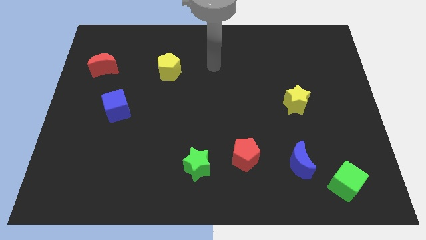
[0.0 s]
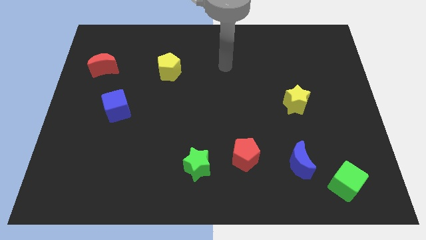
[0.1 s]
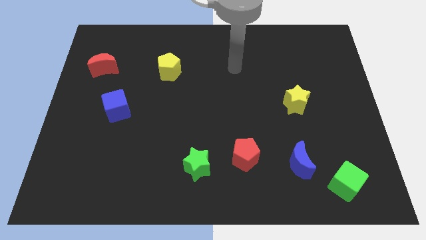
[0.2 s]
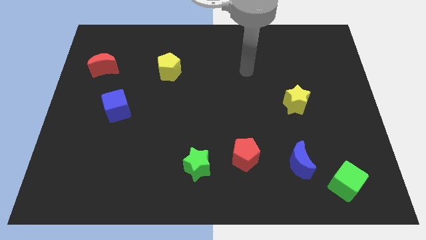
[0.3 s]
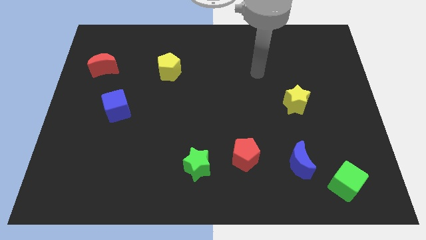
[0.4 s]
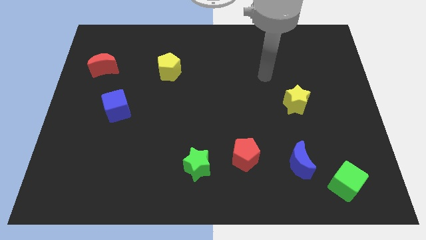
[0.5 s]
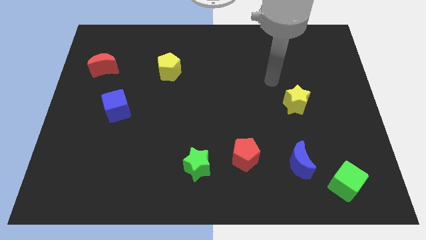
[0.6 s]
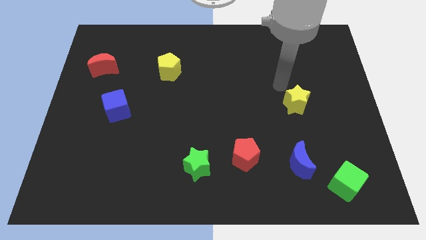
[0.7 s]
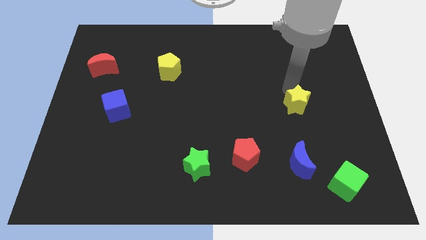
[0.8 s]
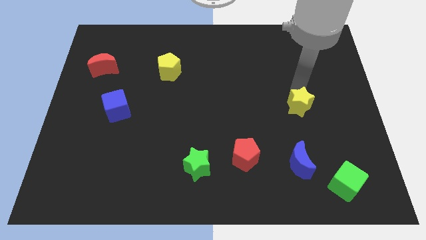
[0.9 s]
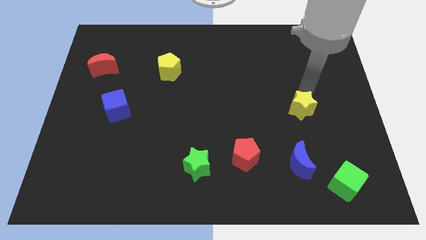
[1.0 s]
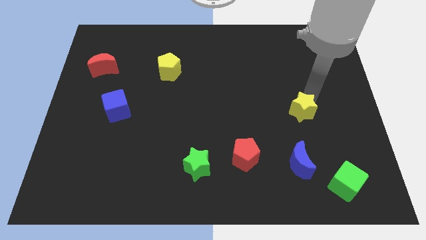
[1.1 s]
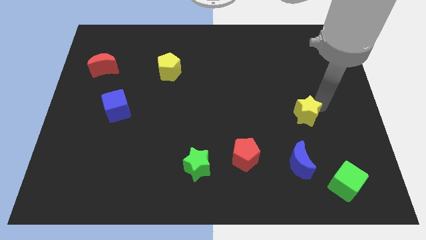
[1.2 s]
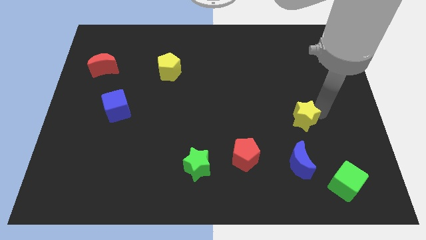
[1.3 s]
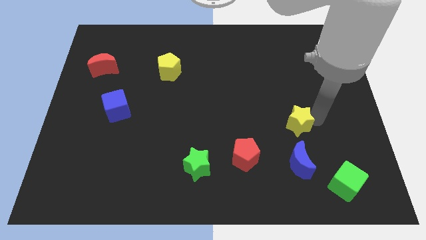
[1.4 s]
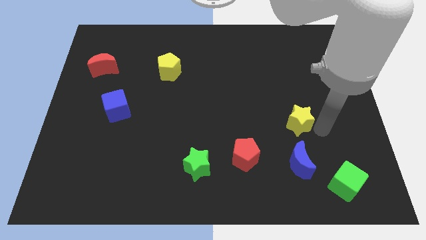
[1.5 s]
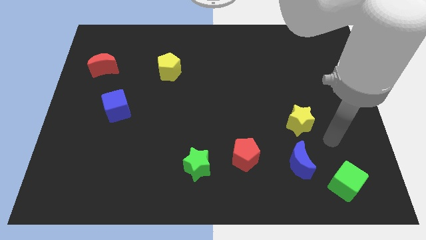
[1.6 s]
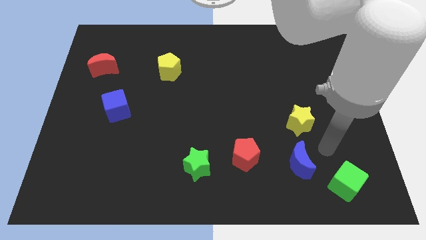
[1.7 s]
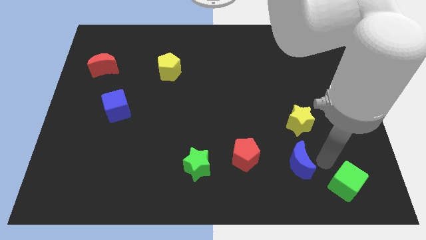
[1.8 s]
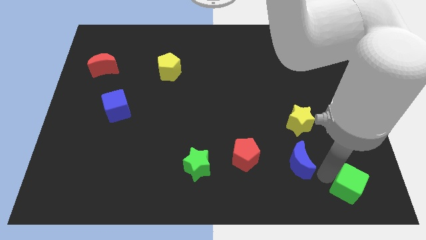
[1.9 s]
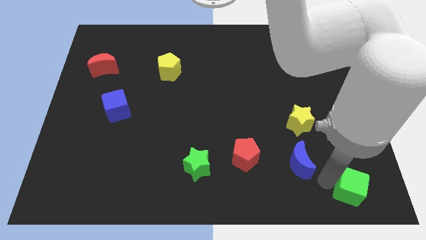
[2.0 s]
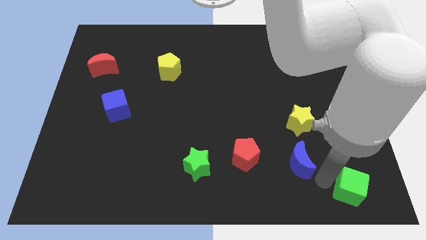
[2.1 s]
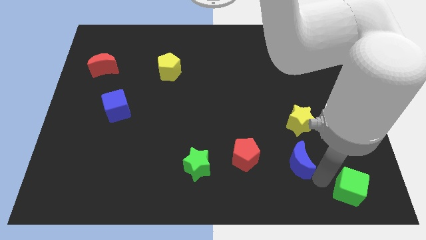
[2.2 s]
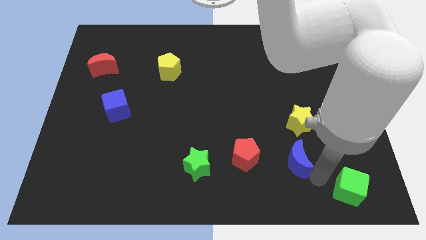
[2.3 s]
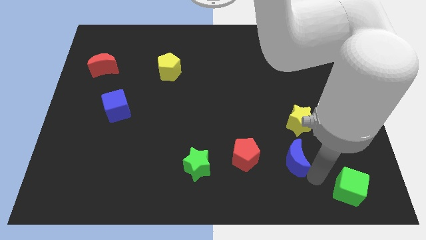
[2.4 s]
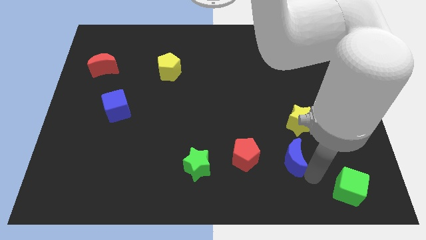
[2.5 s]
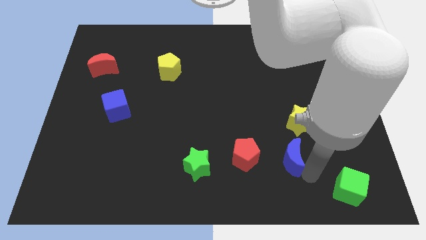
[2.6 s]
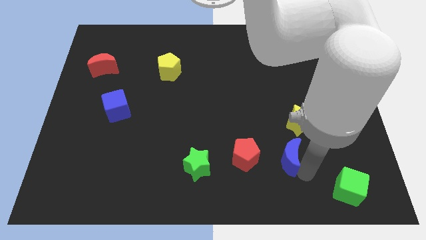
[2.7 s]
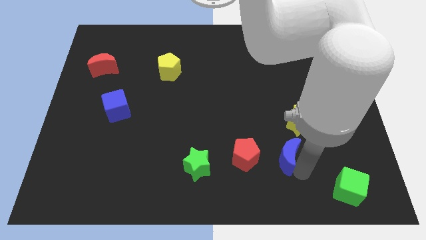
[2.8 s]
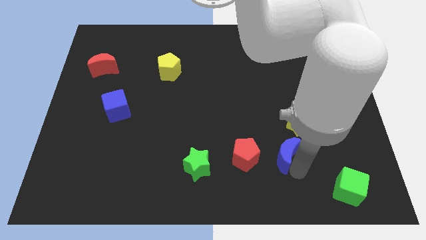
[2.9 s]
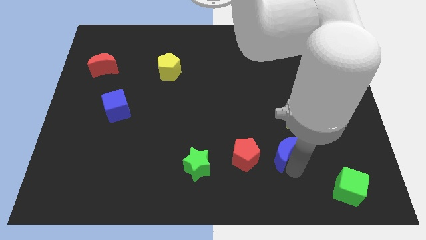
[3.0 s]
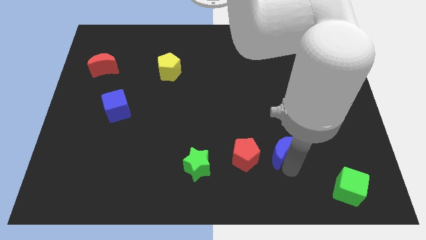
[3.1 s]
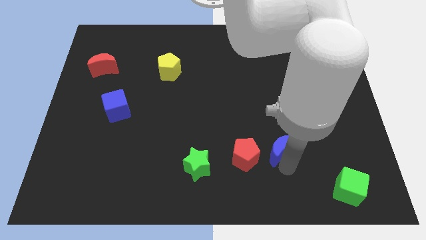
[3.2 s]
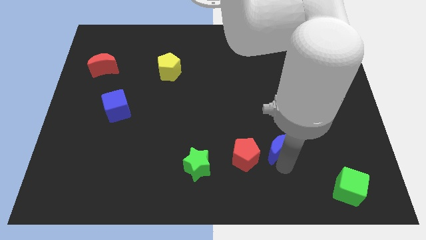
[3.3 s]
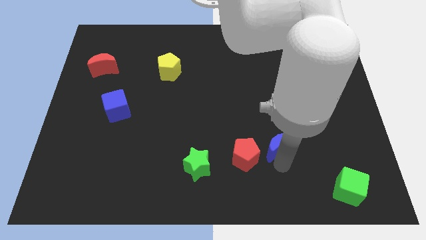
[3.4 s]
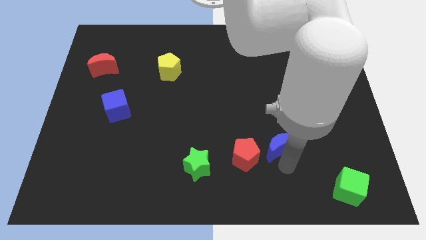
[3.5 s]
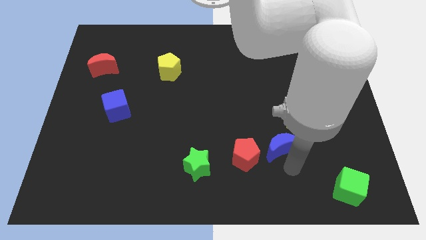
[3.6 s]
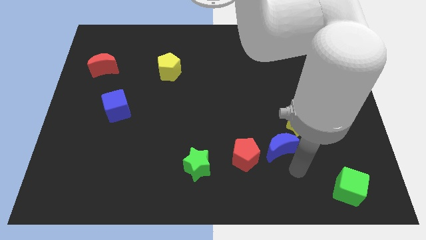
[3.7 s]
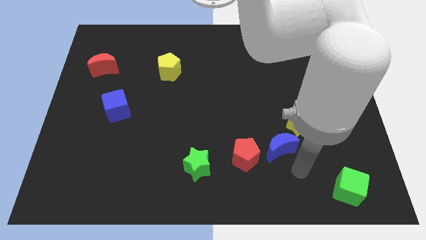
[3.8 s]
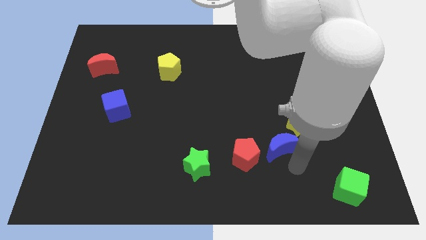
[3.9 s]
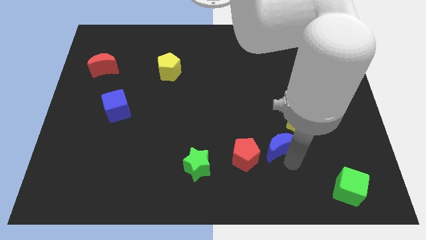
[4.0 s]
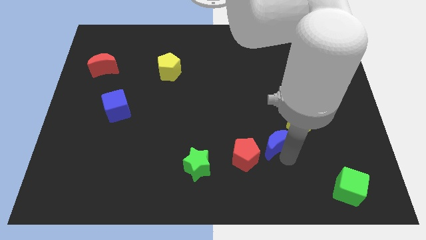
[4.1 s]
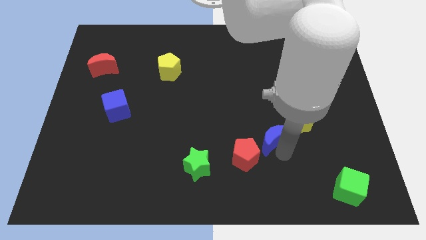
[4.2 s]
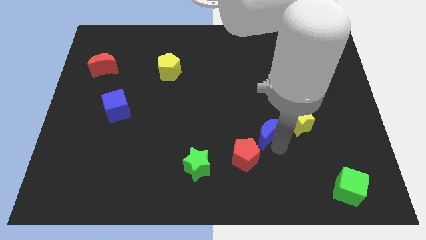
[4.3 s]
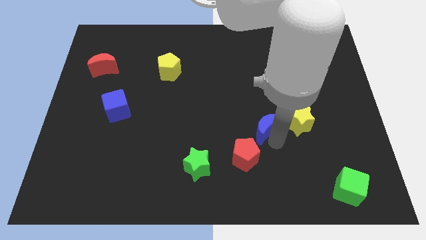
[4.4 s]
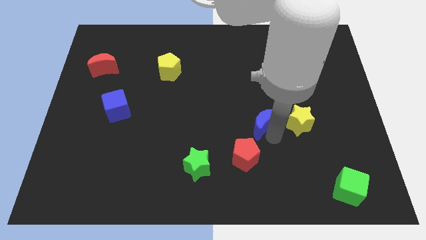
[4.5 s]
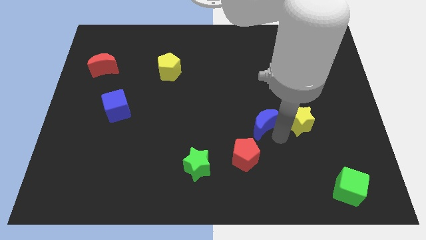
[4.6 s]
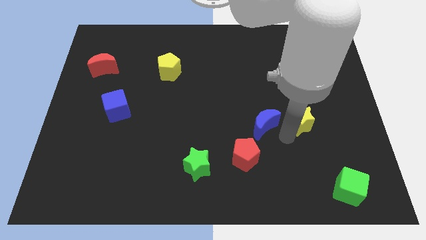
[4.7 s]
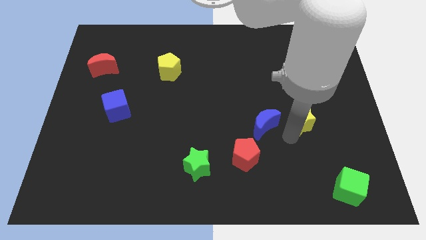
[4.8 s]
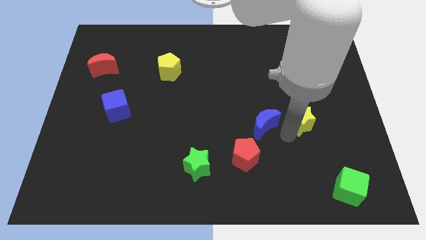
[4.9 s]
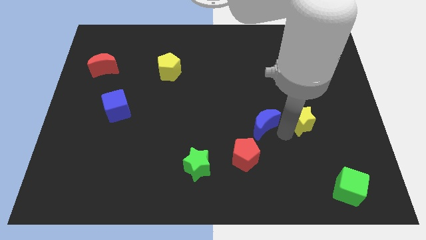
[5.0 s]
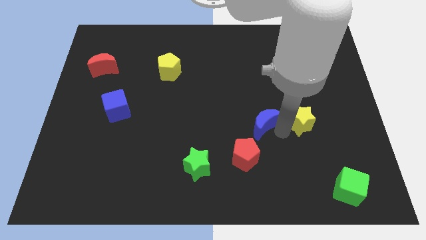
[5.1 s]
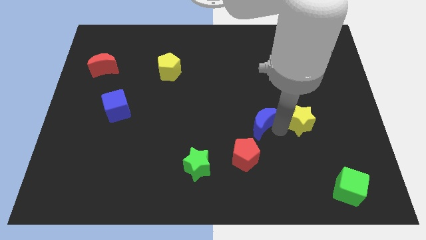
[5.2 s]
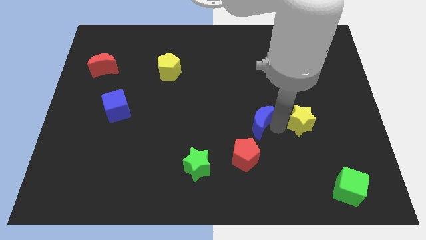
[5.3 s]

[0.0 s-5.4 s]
put the blue moon to the middle
